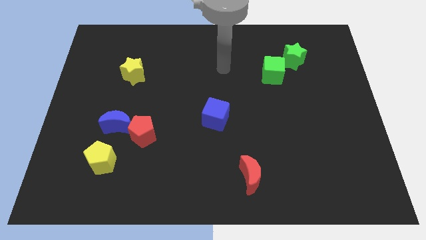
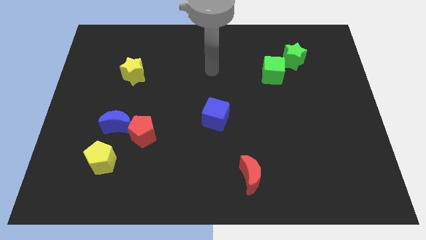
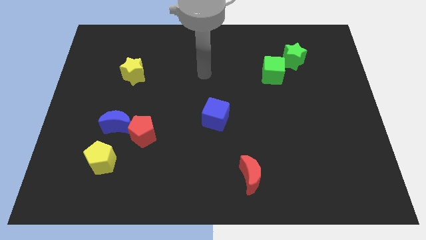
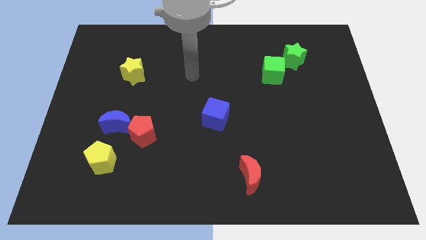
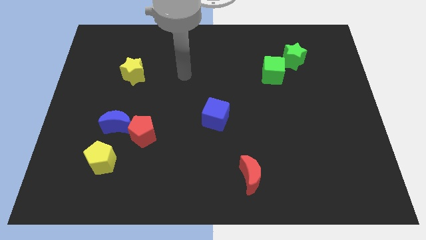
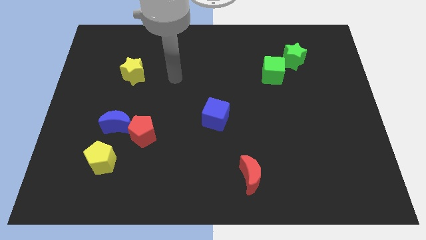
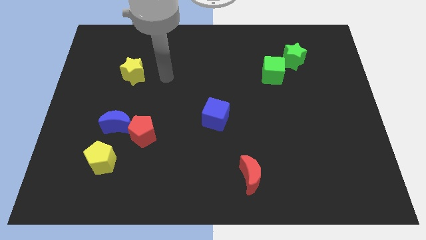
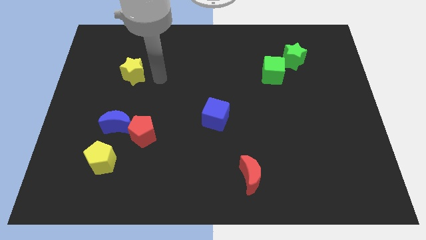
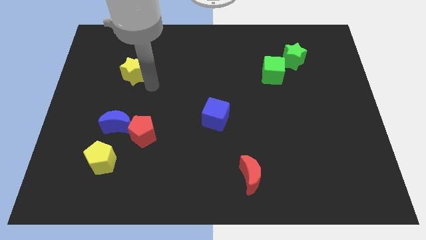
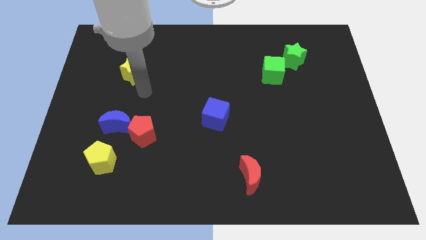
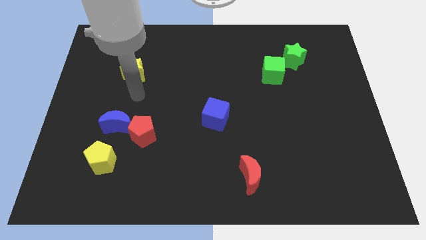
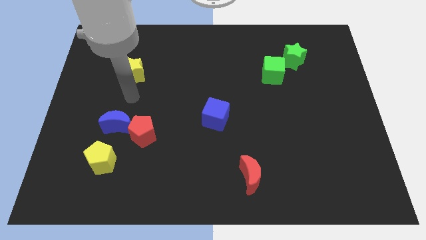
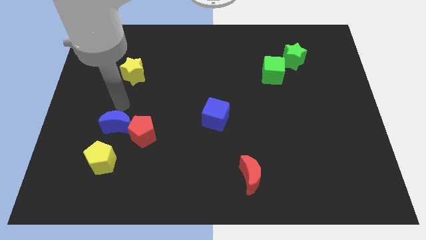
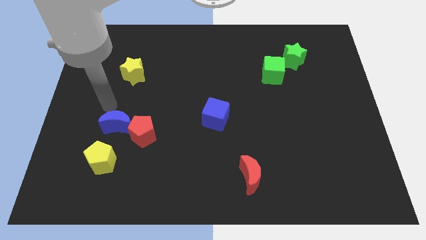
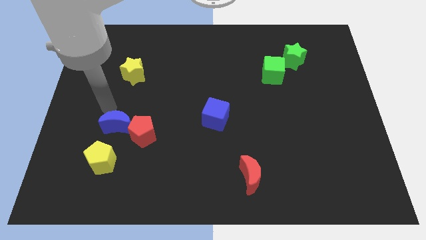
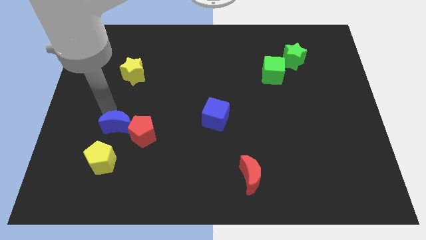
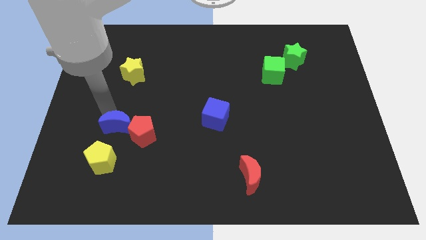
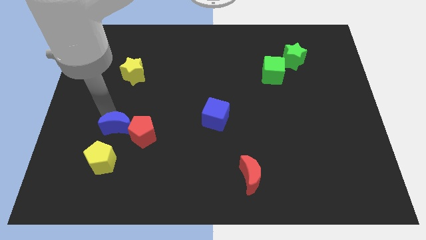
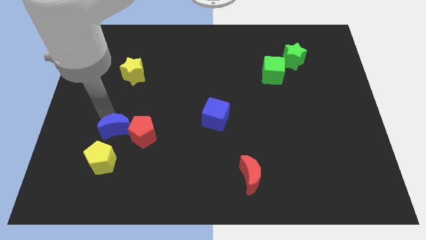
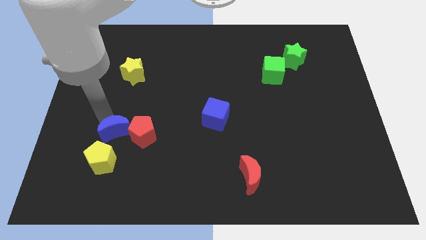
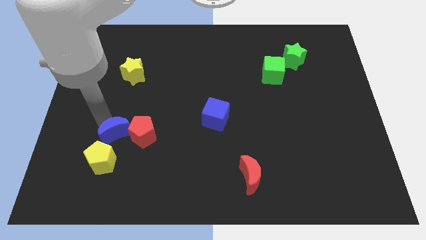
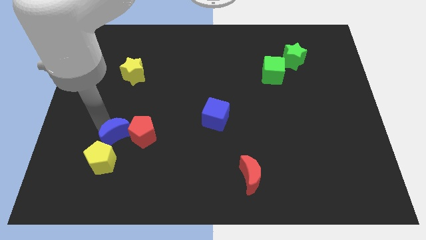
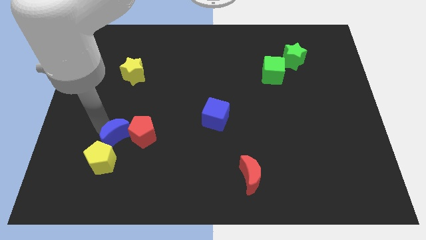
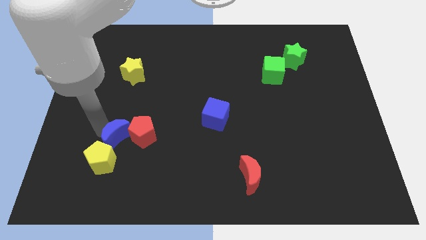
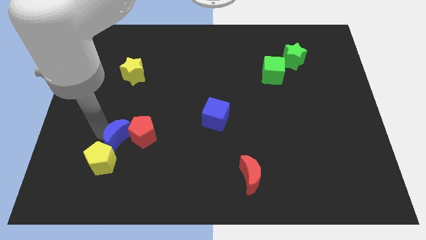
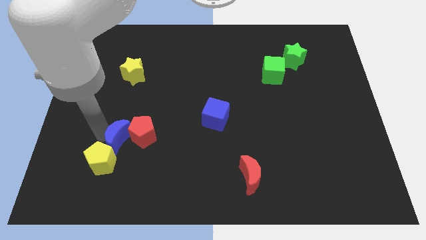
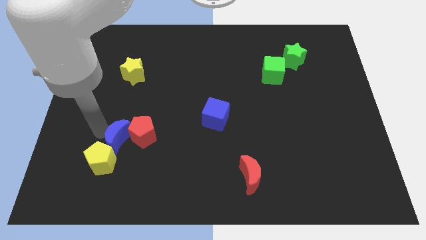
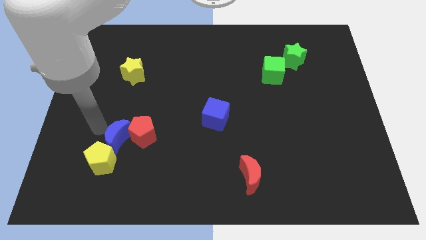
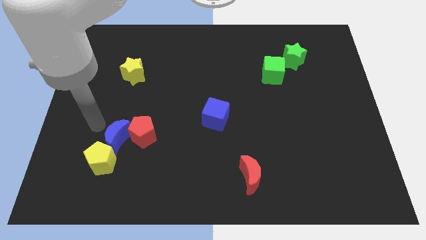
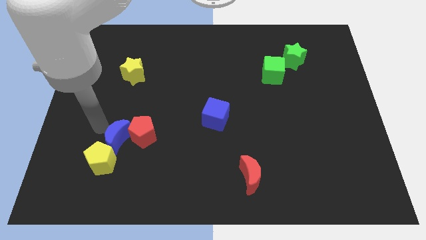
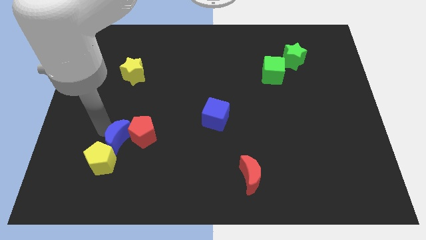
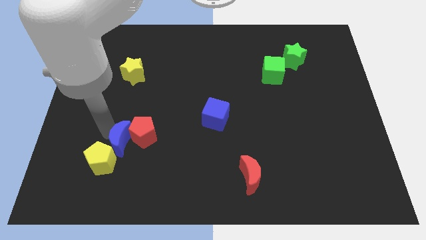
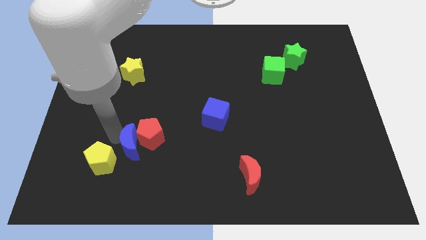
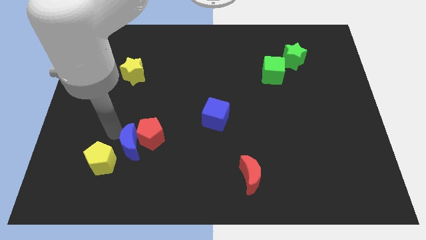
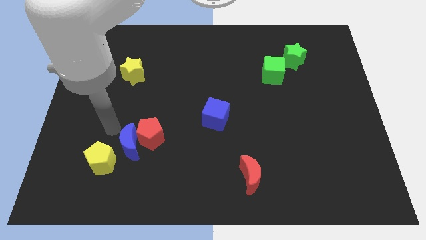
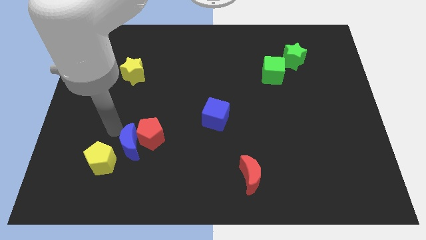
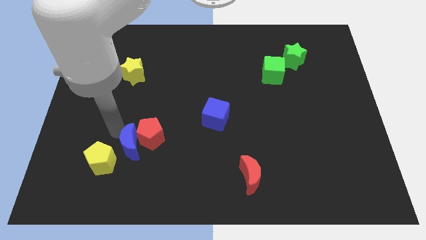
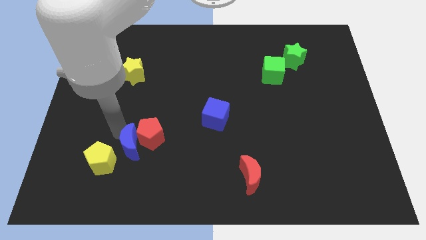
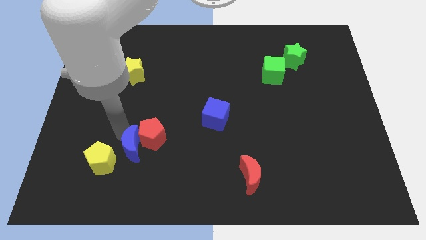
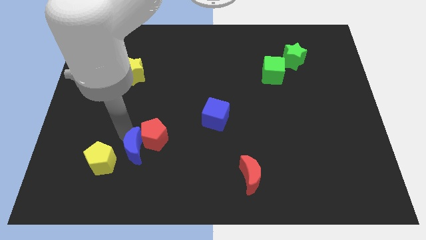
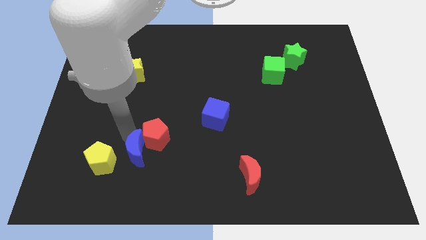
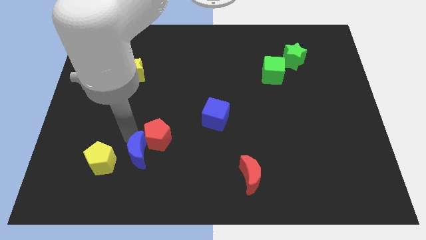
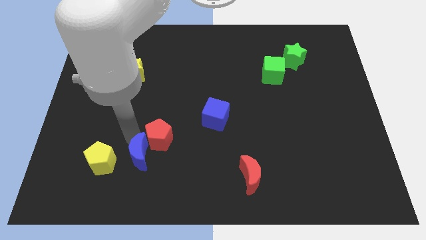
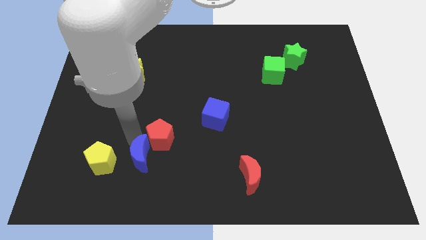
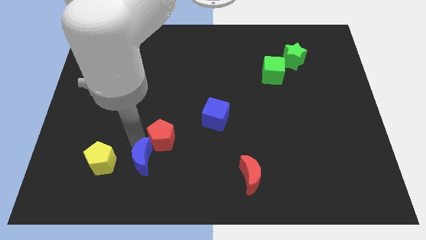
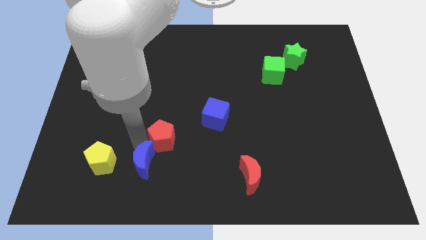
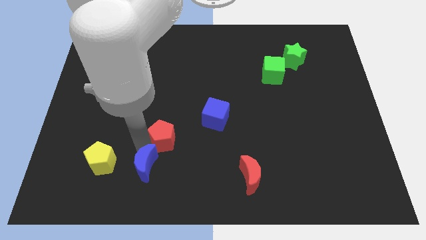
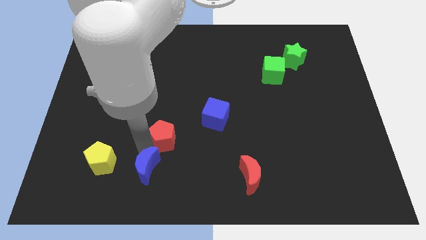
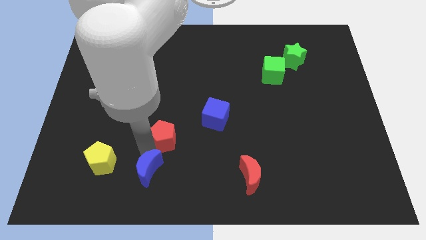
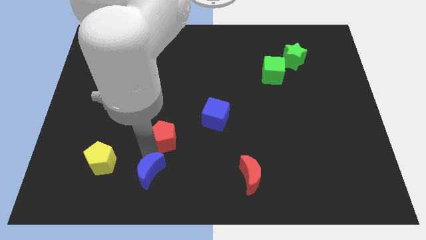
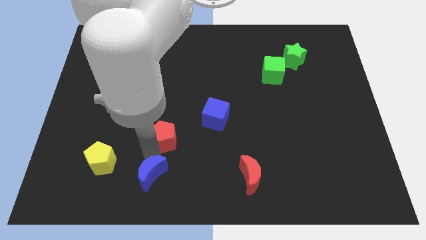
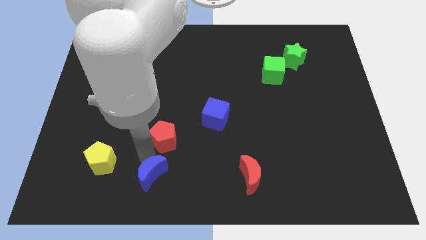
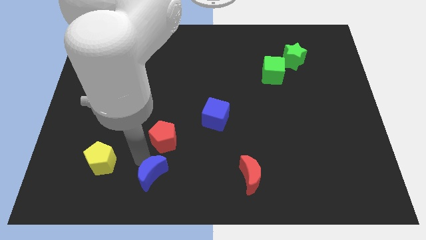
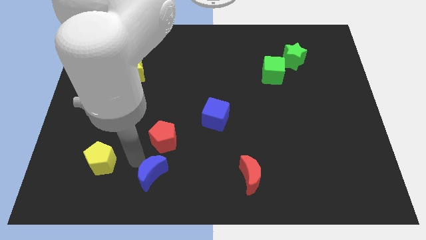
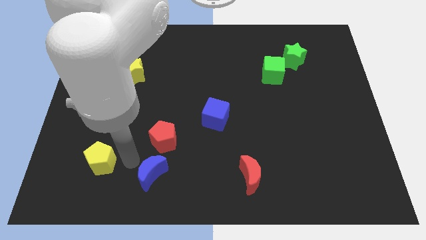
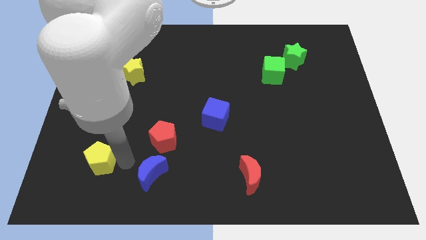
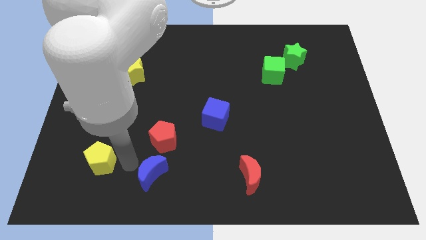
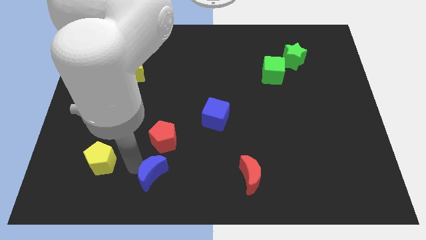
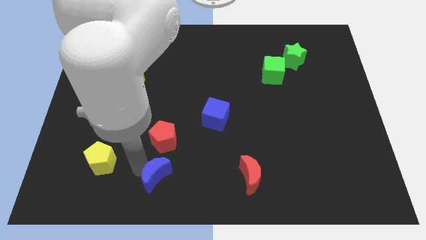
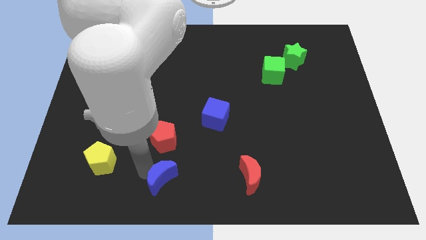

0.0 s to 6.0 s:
put the blue moon to the bottom side

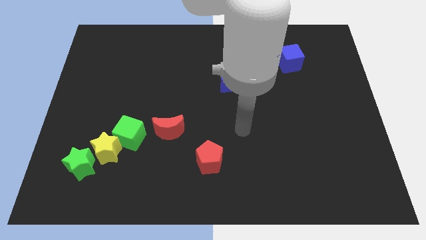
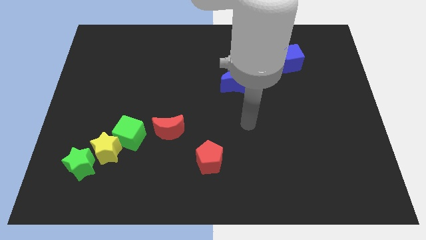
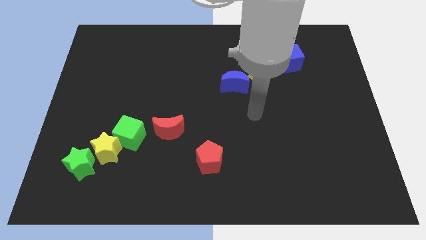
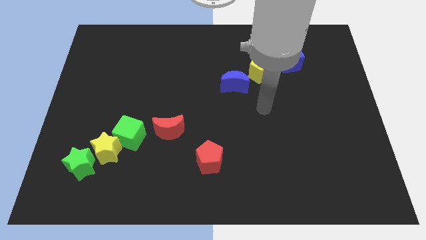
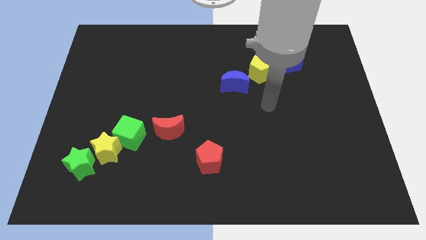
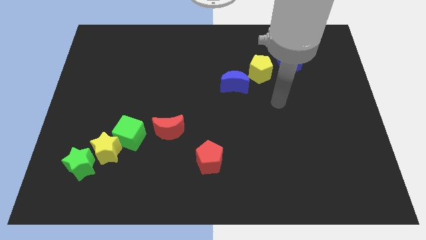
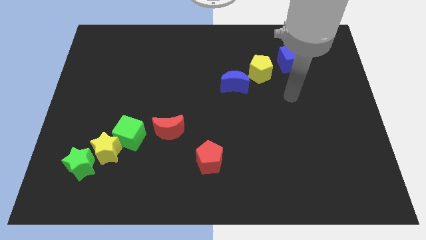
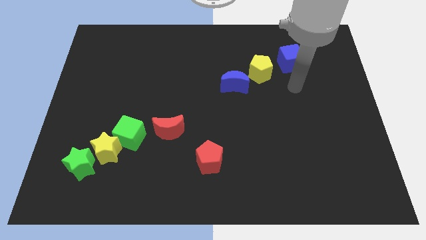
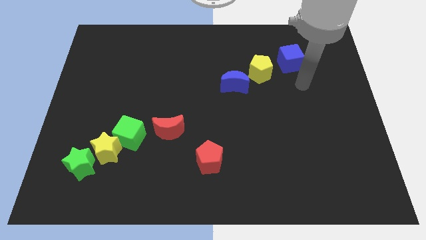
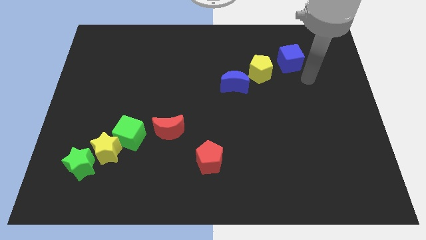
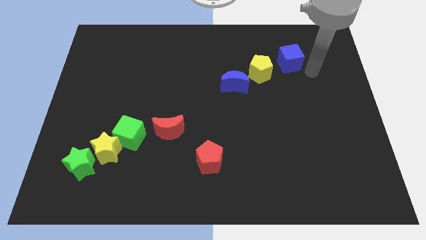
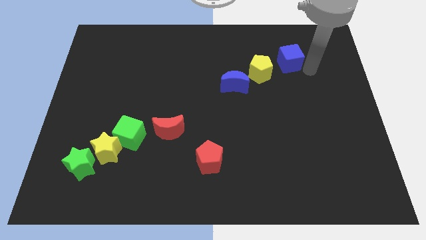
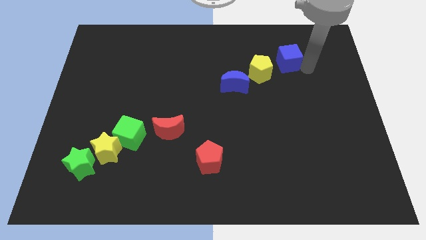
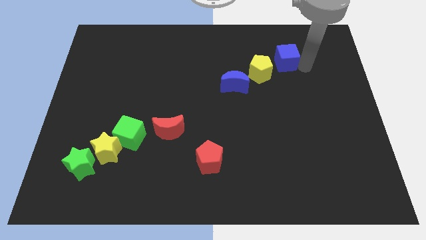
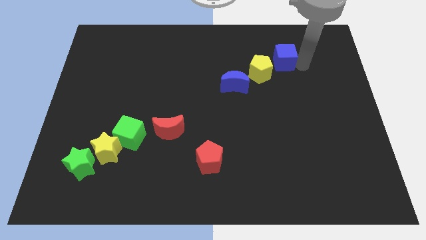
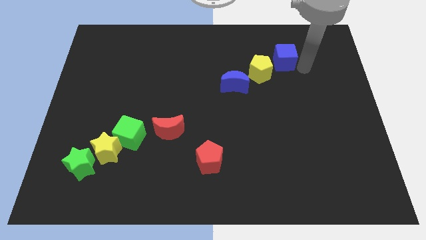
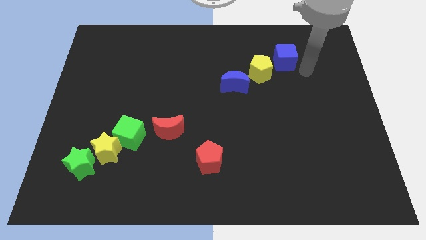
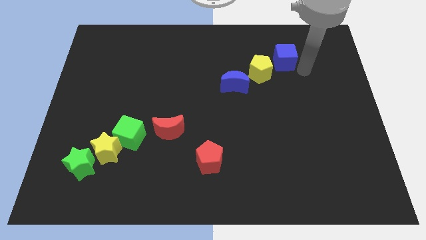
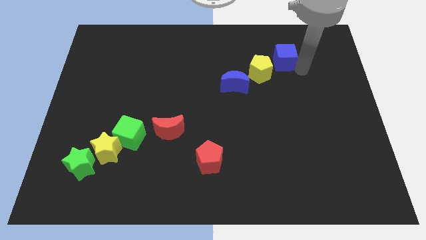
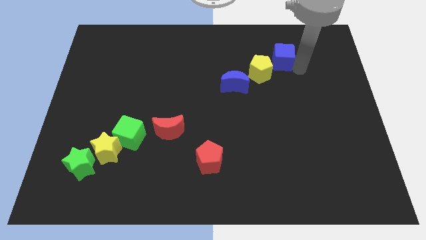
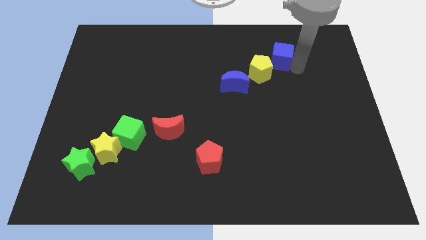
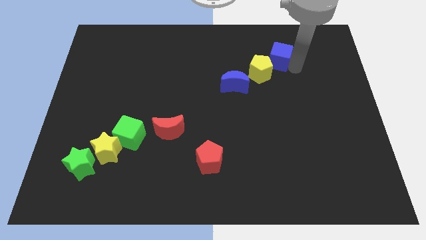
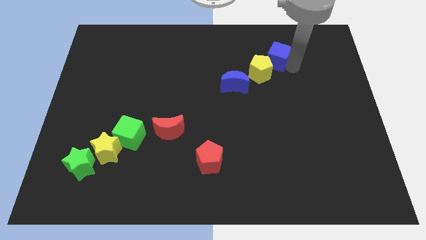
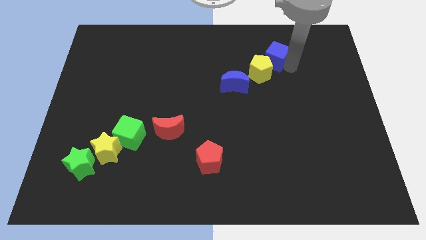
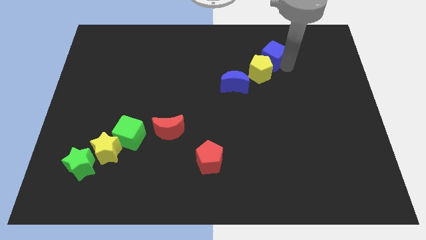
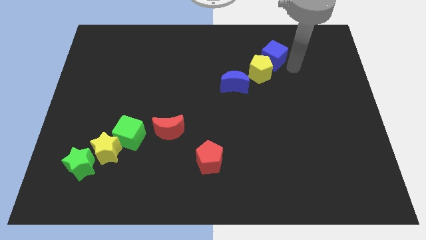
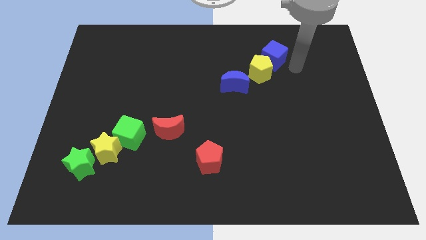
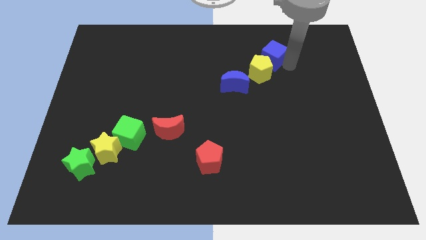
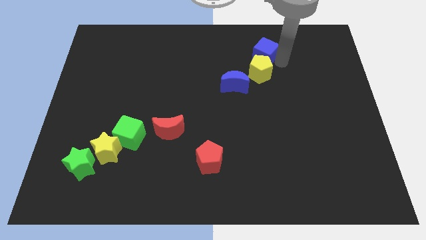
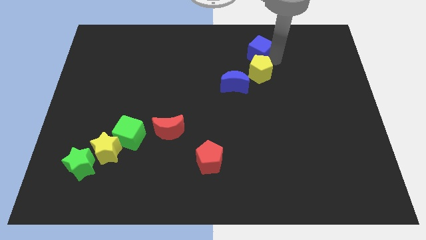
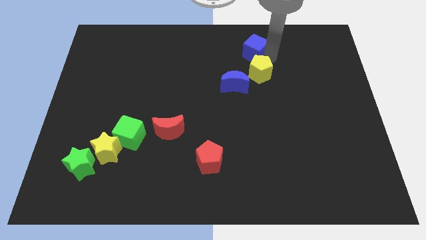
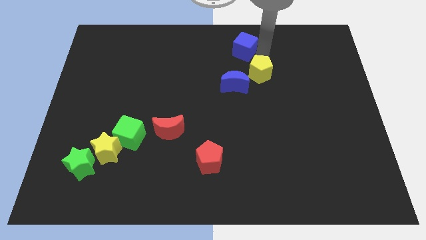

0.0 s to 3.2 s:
push the blue cube to the towards your base
